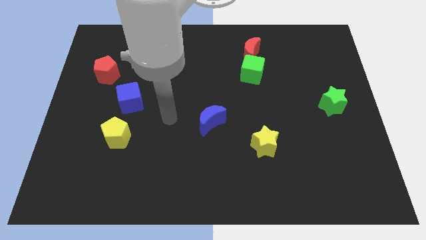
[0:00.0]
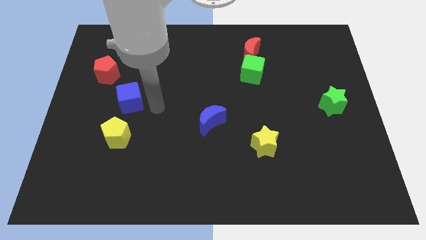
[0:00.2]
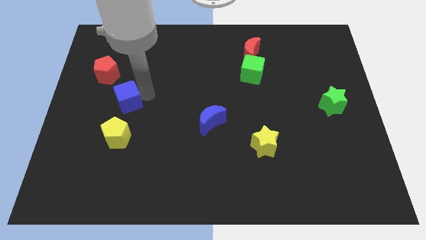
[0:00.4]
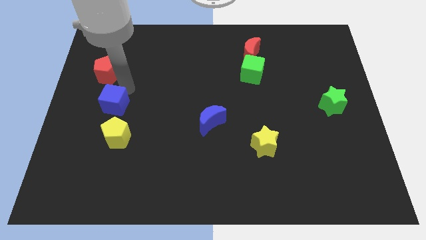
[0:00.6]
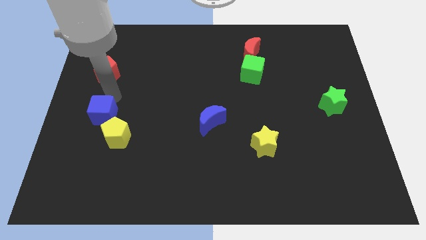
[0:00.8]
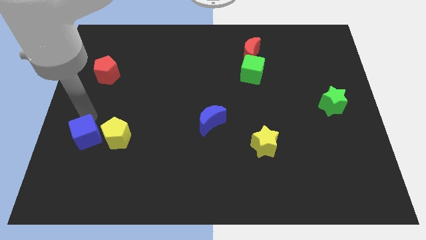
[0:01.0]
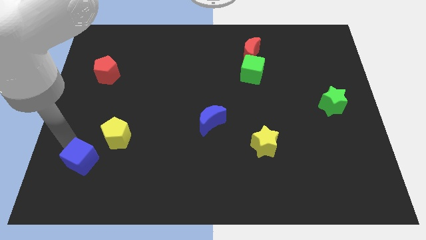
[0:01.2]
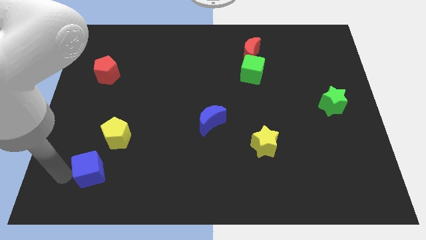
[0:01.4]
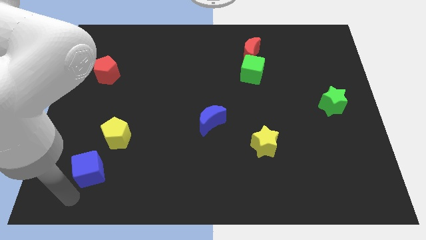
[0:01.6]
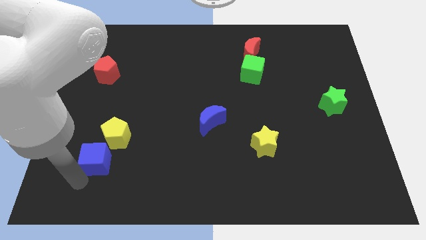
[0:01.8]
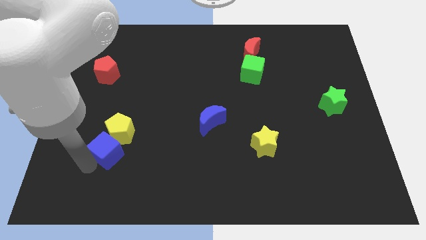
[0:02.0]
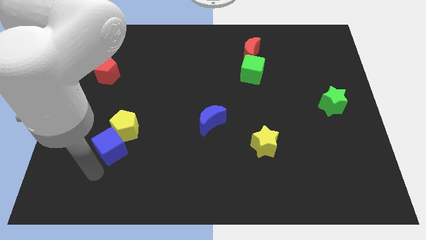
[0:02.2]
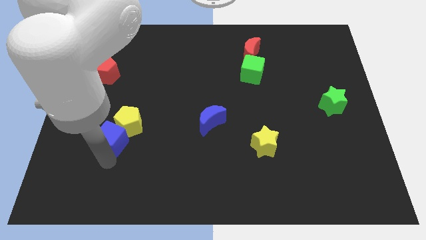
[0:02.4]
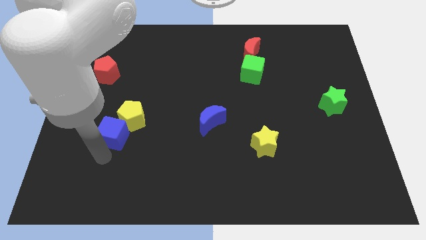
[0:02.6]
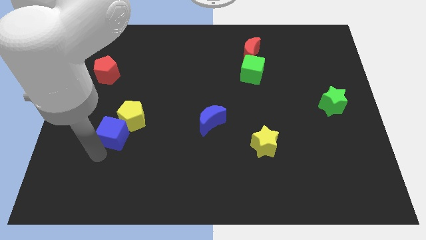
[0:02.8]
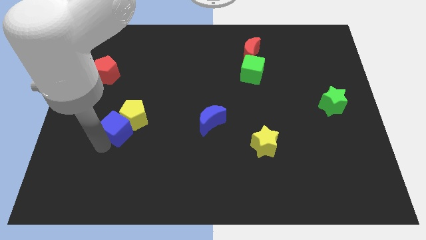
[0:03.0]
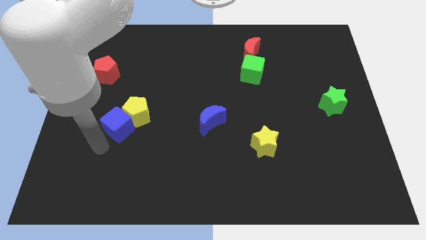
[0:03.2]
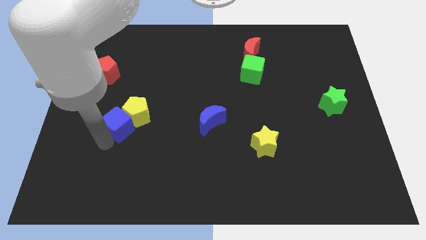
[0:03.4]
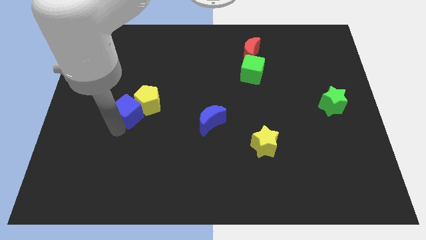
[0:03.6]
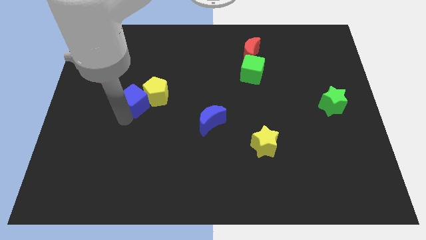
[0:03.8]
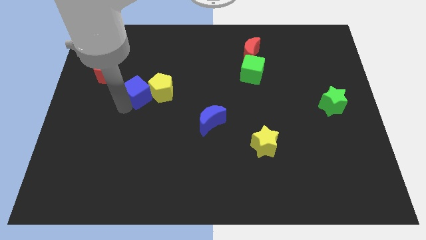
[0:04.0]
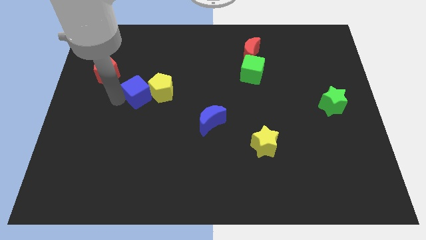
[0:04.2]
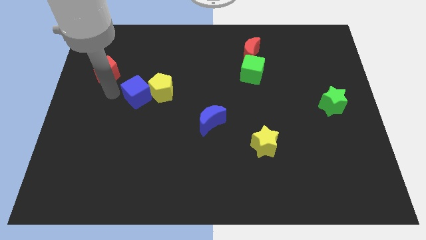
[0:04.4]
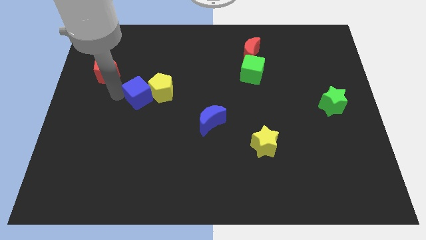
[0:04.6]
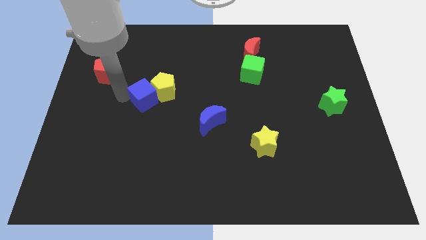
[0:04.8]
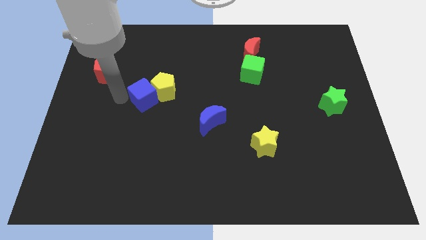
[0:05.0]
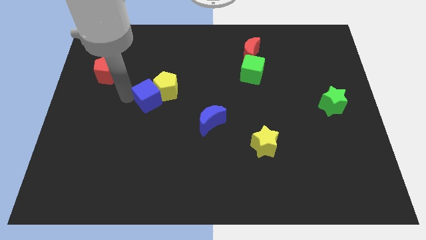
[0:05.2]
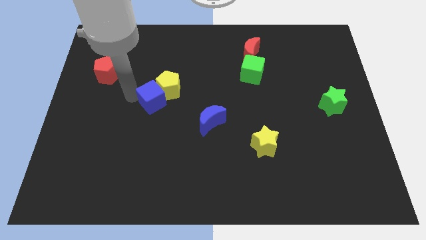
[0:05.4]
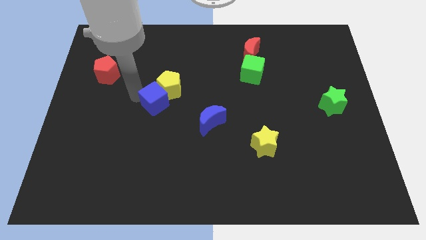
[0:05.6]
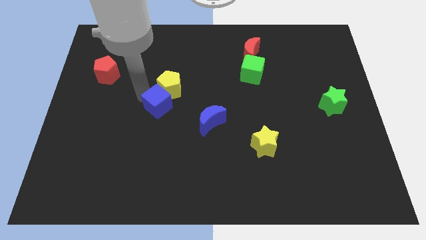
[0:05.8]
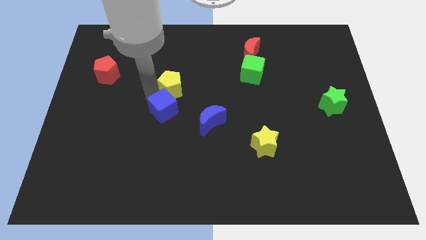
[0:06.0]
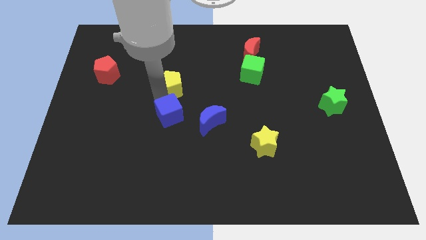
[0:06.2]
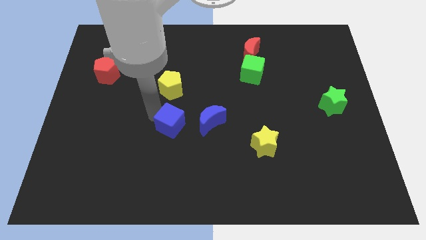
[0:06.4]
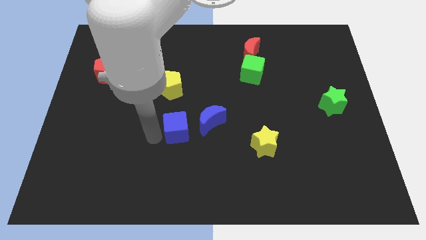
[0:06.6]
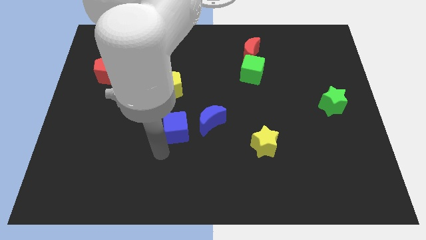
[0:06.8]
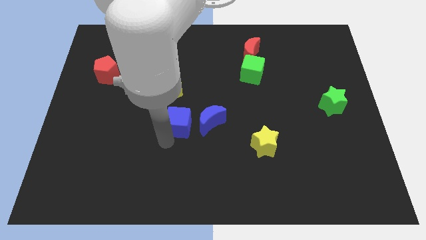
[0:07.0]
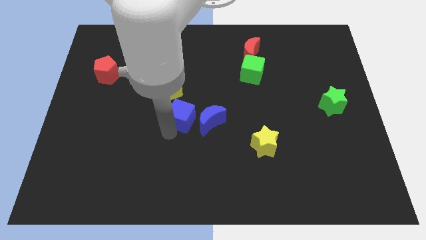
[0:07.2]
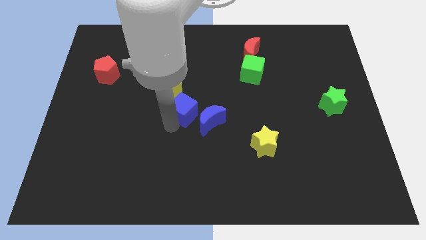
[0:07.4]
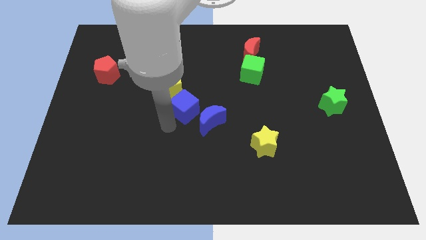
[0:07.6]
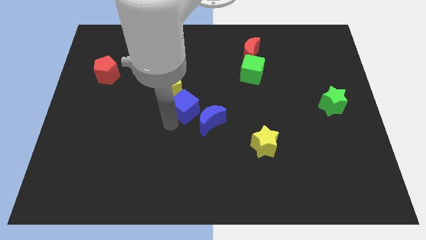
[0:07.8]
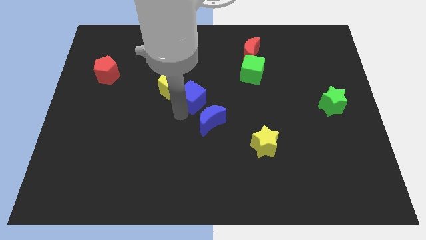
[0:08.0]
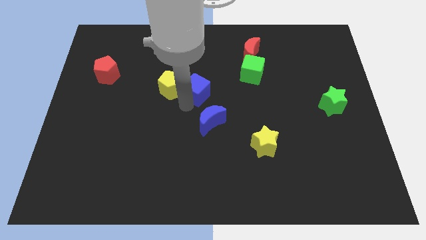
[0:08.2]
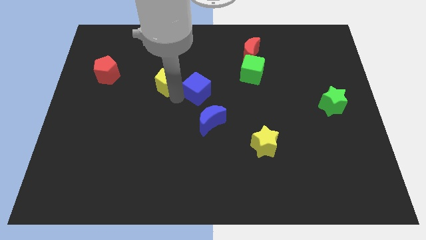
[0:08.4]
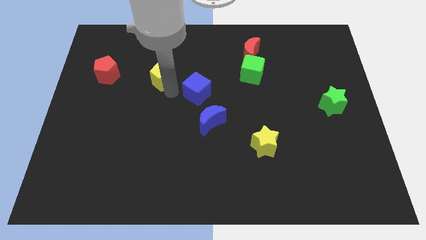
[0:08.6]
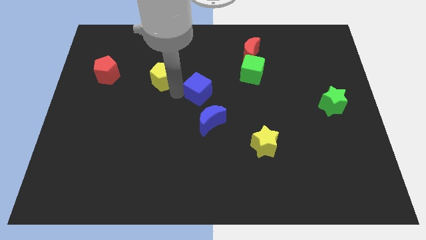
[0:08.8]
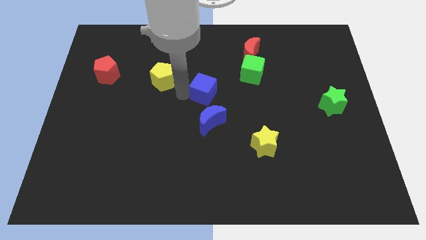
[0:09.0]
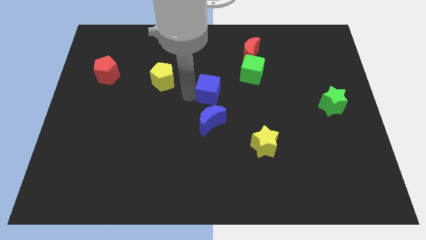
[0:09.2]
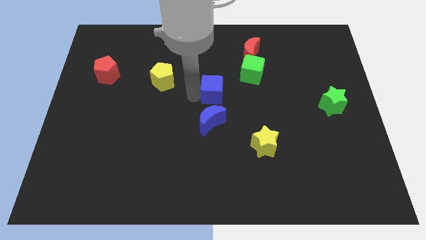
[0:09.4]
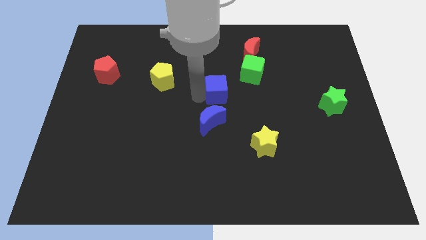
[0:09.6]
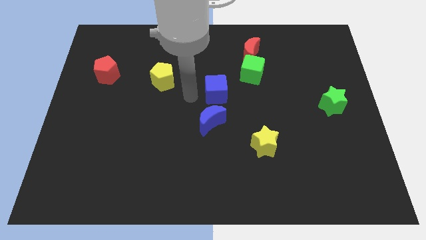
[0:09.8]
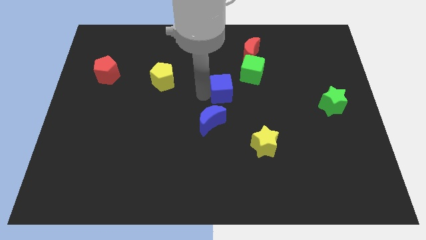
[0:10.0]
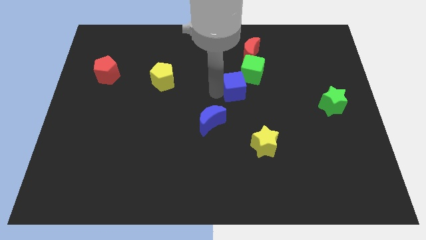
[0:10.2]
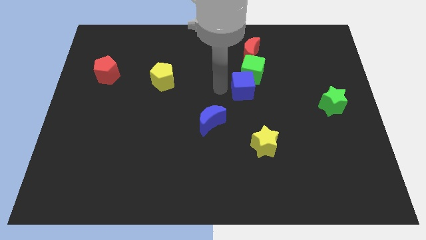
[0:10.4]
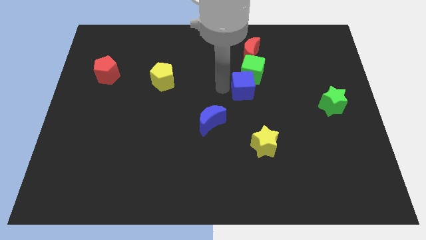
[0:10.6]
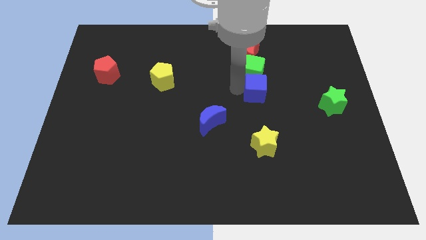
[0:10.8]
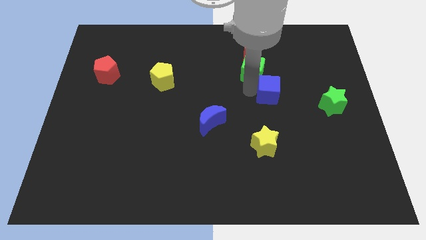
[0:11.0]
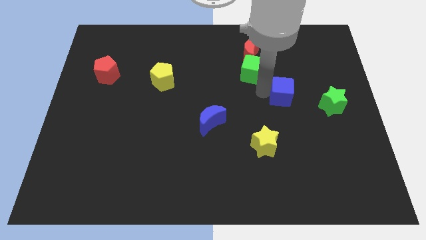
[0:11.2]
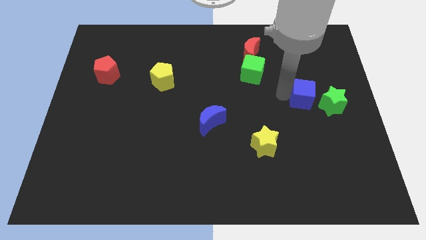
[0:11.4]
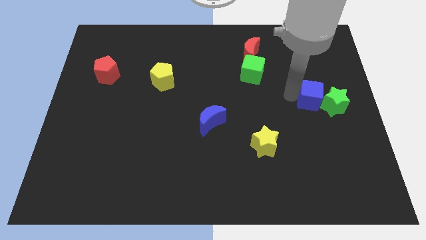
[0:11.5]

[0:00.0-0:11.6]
push the blue cube towards the green star
